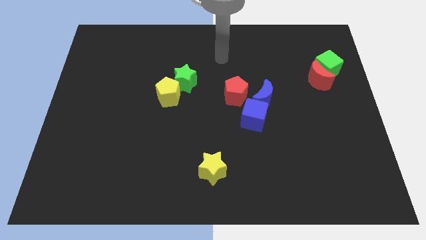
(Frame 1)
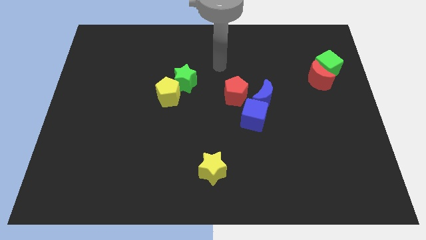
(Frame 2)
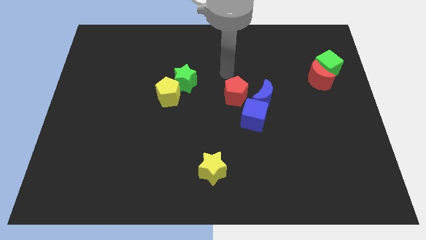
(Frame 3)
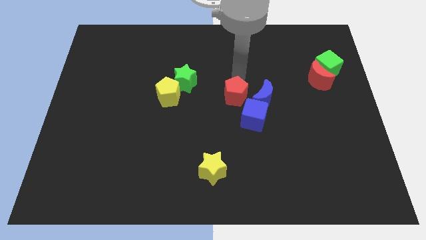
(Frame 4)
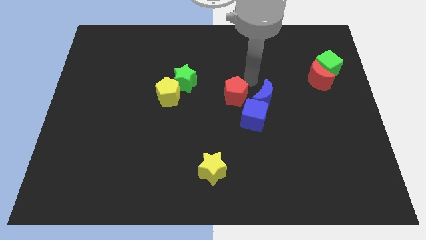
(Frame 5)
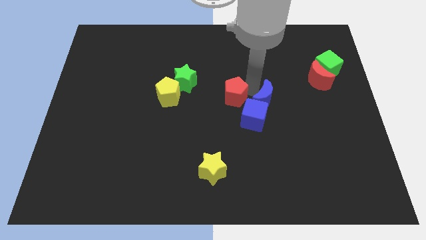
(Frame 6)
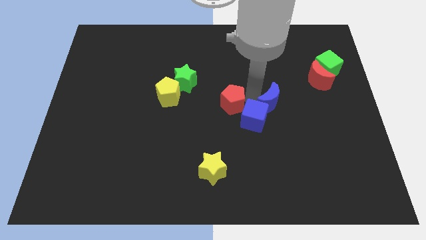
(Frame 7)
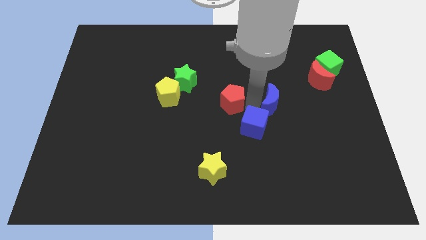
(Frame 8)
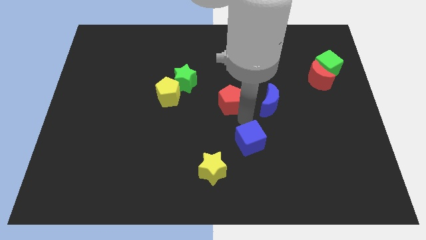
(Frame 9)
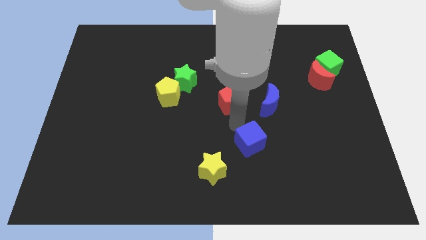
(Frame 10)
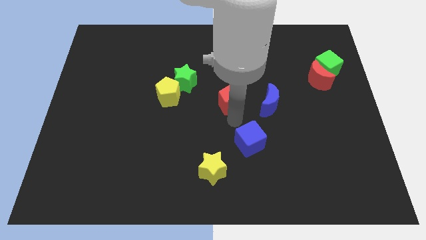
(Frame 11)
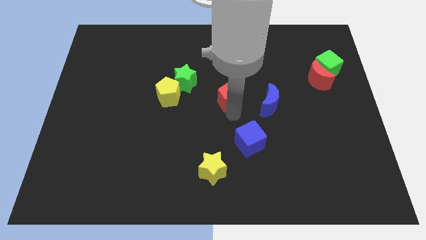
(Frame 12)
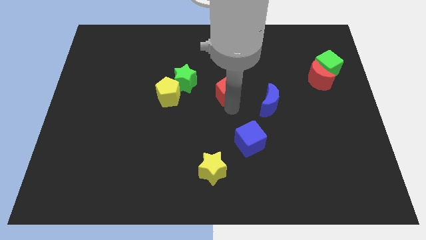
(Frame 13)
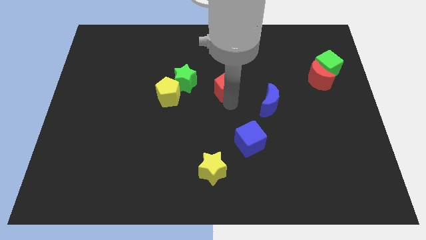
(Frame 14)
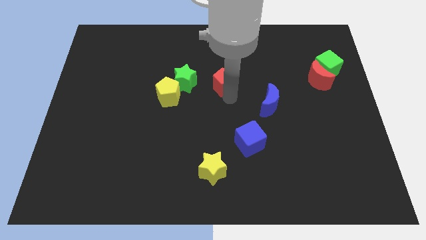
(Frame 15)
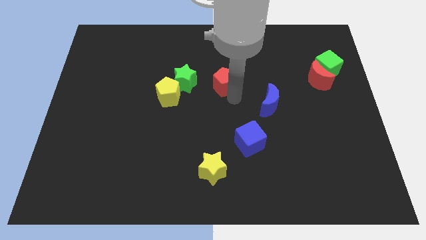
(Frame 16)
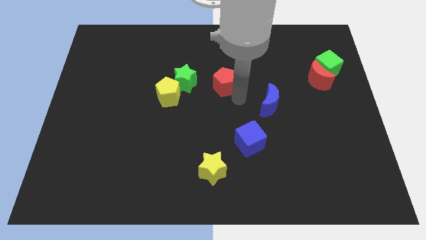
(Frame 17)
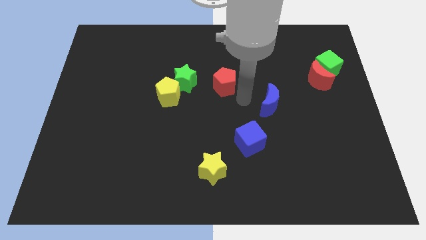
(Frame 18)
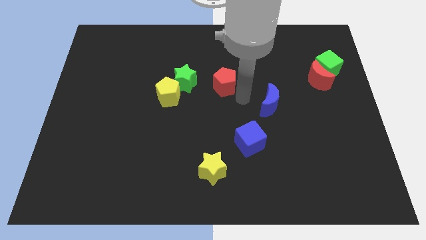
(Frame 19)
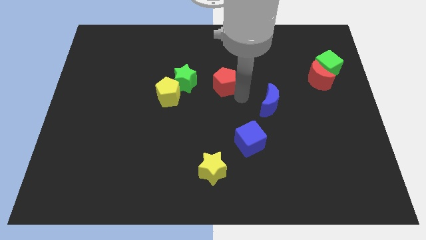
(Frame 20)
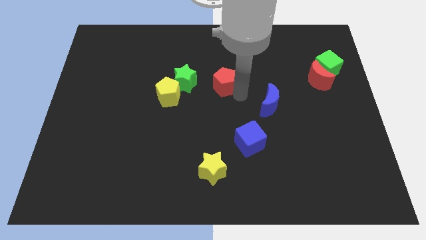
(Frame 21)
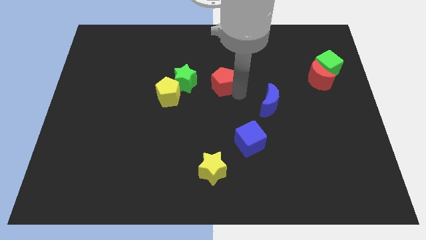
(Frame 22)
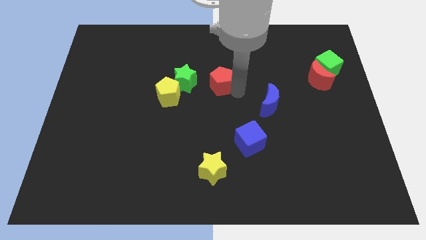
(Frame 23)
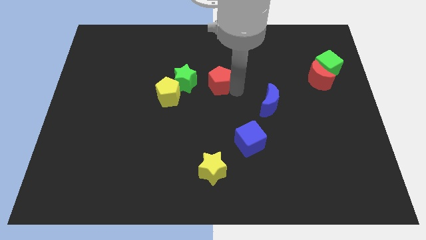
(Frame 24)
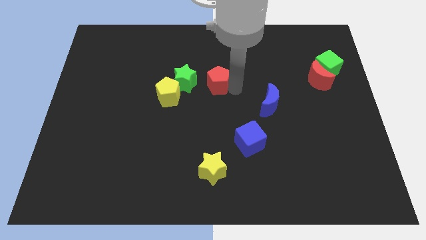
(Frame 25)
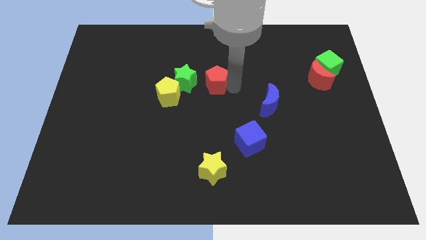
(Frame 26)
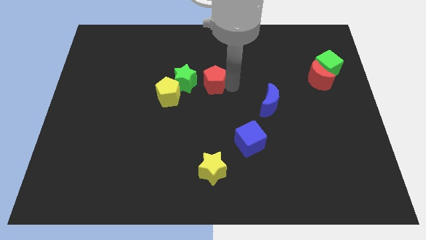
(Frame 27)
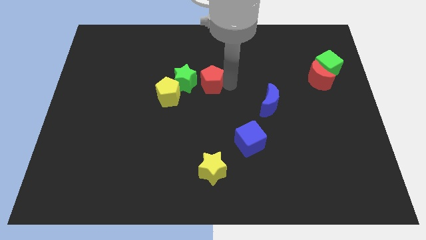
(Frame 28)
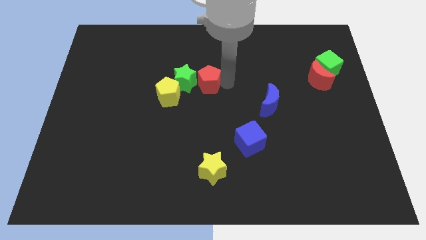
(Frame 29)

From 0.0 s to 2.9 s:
slide the red pentagon up and then to the left somewhat

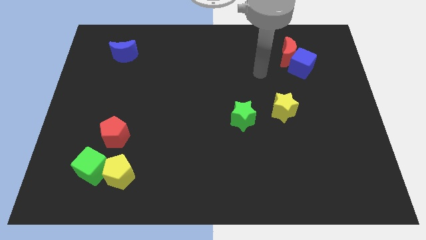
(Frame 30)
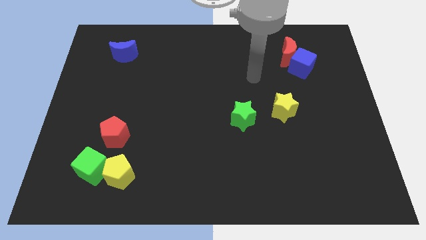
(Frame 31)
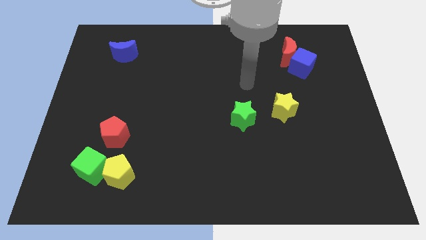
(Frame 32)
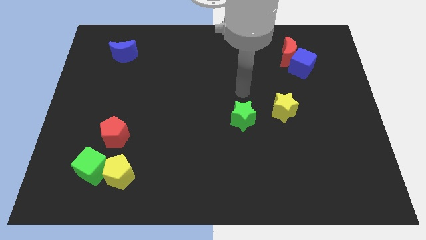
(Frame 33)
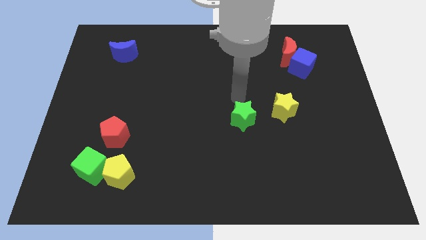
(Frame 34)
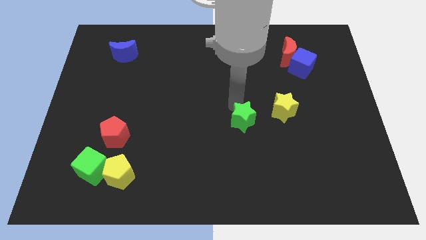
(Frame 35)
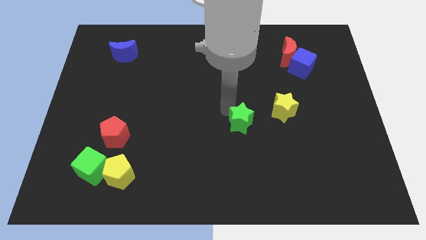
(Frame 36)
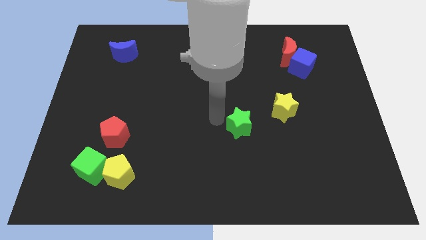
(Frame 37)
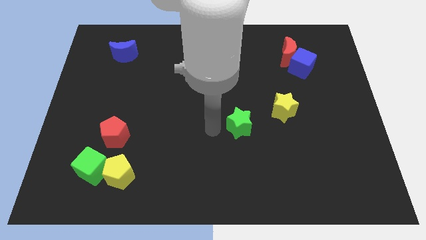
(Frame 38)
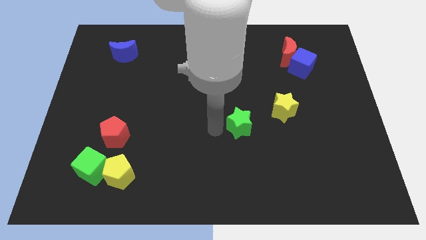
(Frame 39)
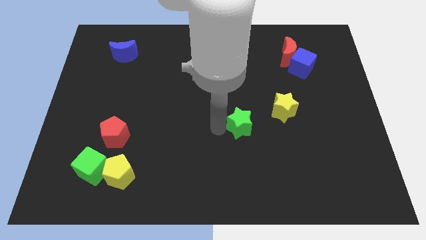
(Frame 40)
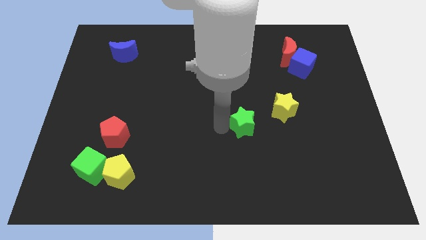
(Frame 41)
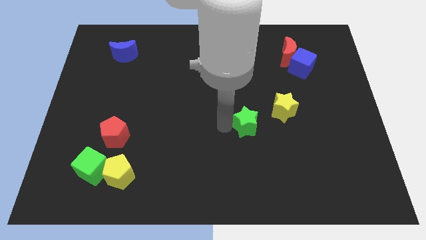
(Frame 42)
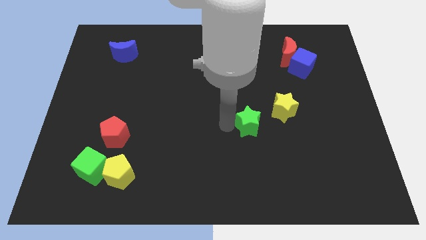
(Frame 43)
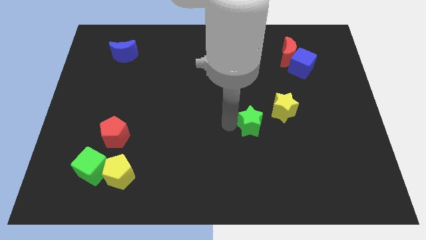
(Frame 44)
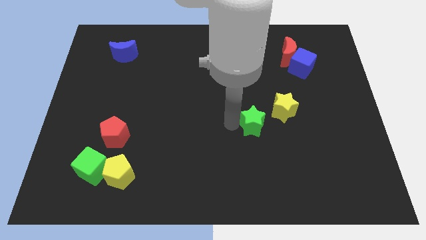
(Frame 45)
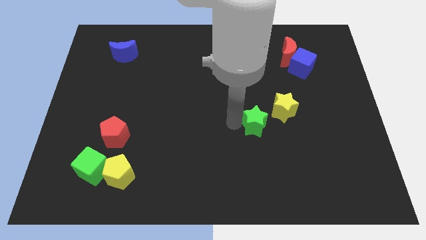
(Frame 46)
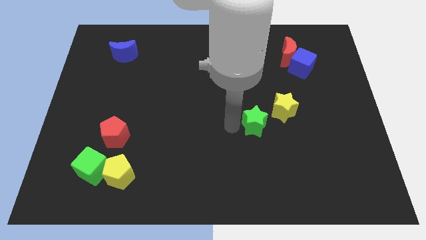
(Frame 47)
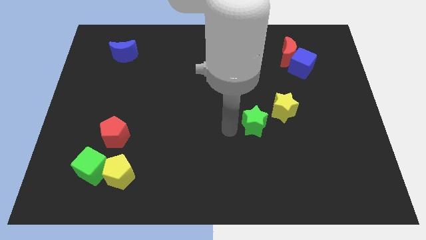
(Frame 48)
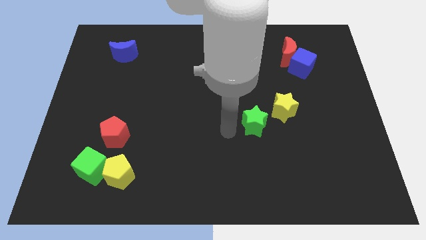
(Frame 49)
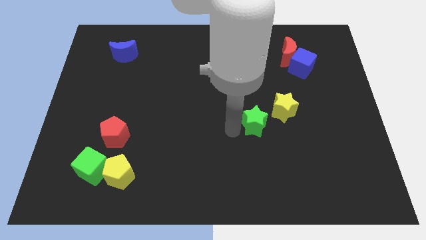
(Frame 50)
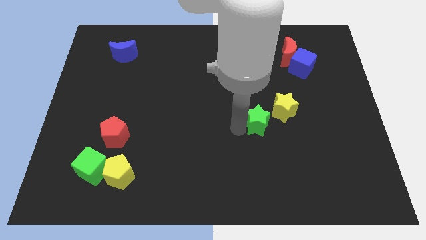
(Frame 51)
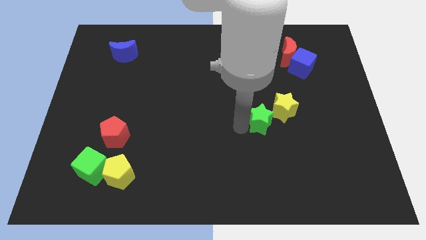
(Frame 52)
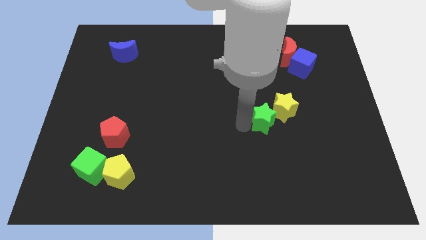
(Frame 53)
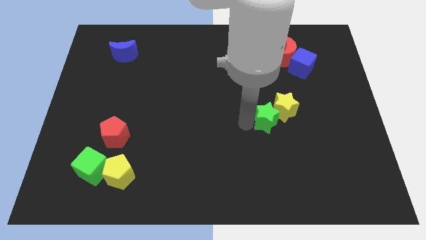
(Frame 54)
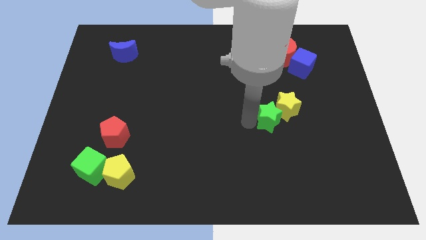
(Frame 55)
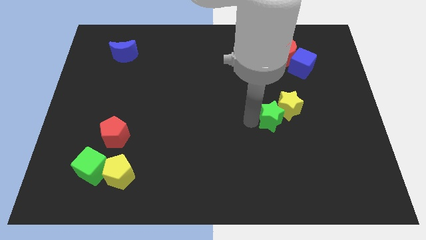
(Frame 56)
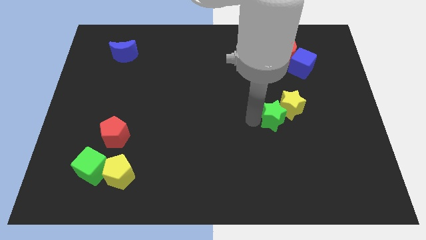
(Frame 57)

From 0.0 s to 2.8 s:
move the green star to the right slightly

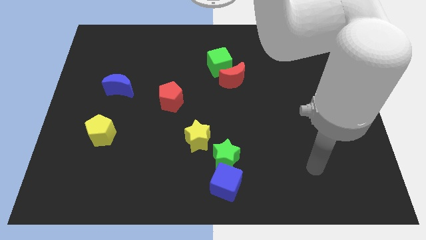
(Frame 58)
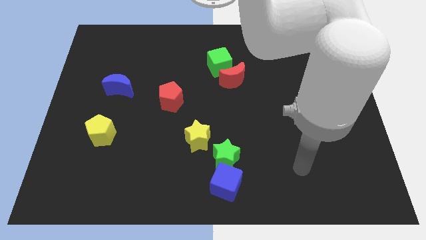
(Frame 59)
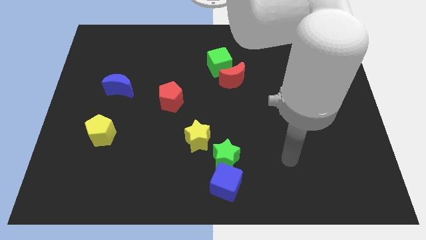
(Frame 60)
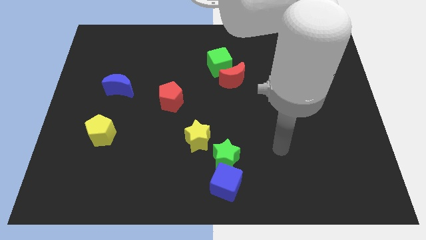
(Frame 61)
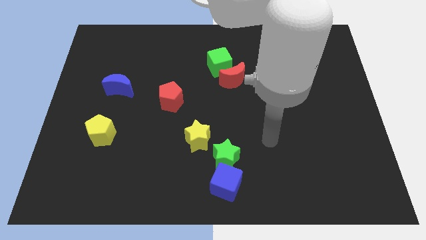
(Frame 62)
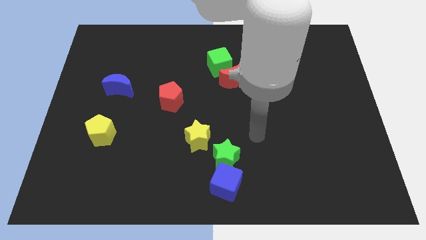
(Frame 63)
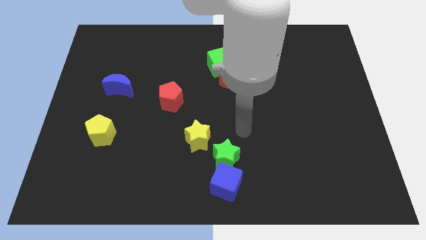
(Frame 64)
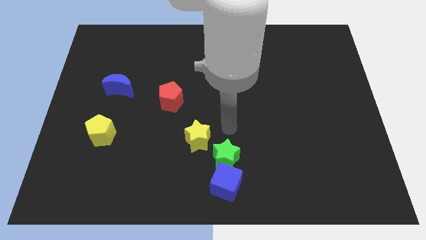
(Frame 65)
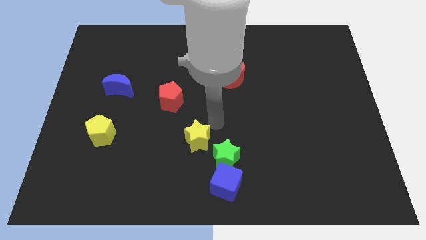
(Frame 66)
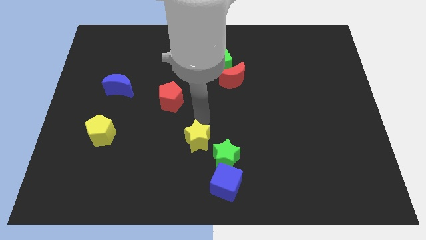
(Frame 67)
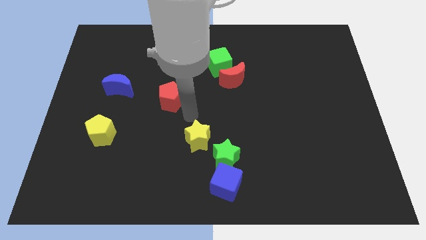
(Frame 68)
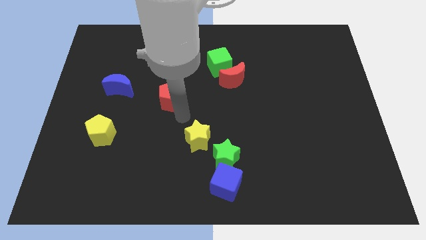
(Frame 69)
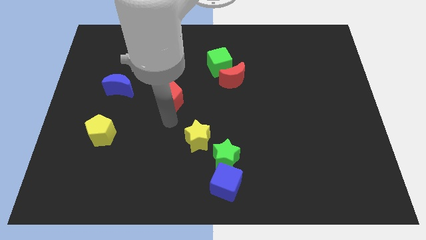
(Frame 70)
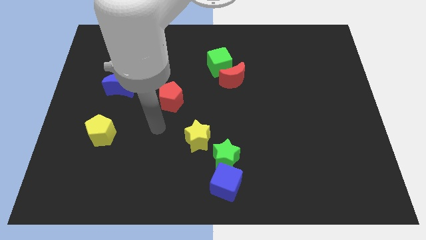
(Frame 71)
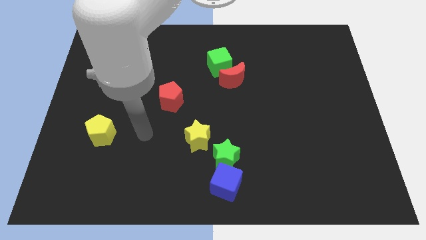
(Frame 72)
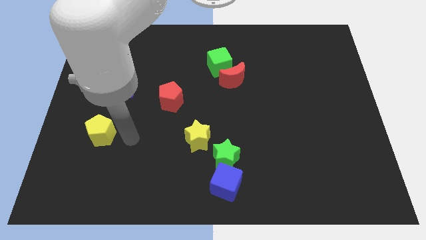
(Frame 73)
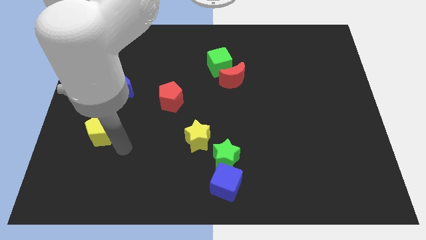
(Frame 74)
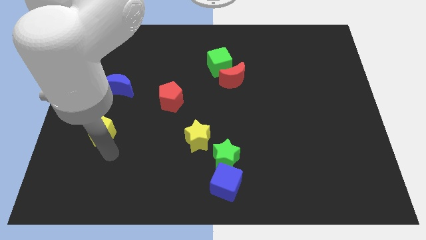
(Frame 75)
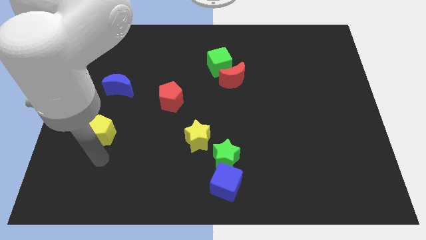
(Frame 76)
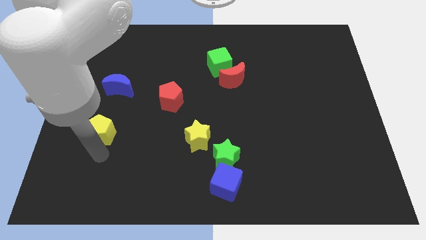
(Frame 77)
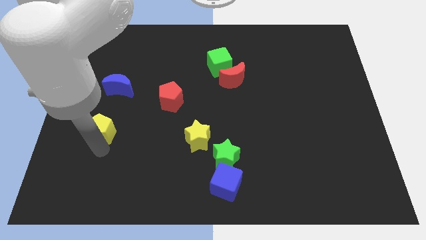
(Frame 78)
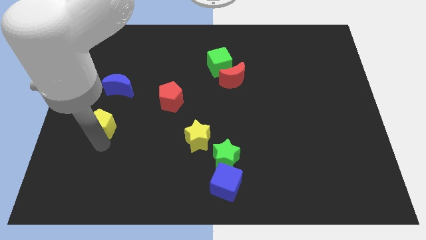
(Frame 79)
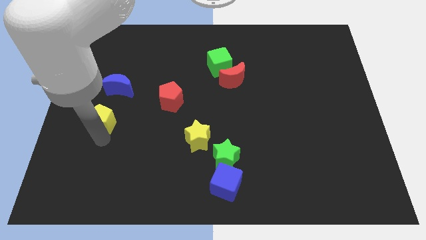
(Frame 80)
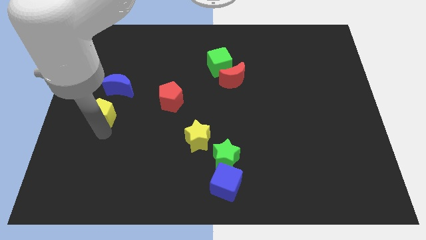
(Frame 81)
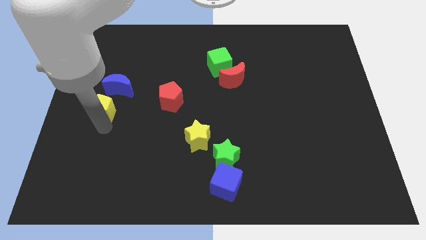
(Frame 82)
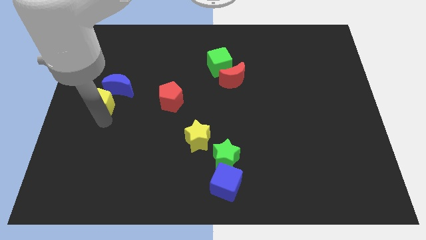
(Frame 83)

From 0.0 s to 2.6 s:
slide the yellow pentagon somewhat up
